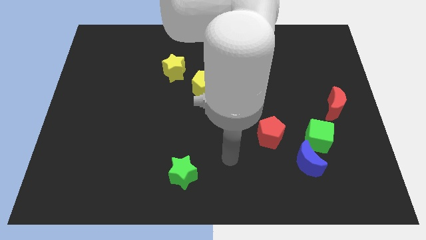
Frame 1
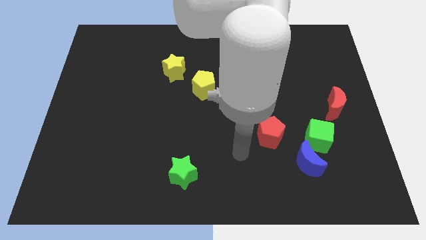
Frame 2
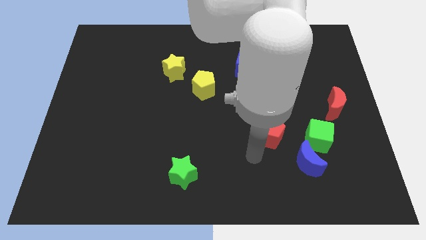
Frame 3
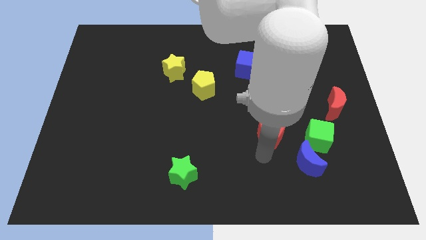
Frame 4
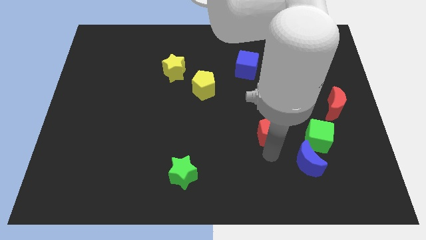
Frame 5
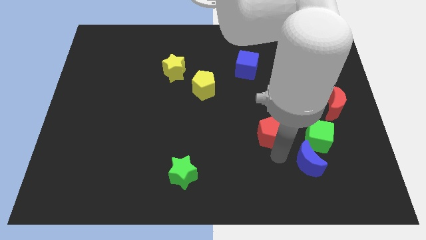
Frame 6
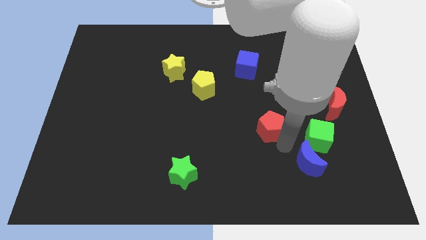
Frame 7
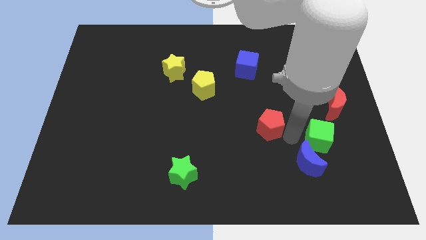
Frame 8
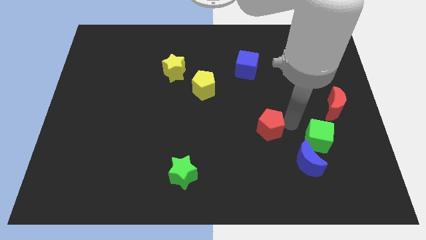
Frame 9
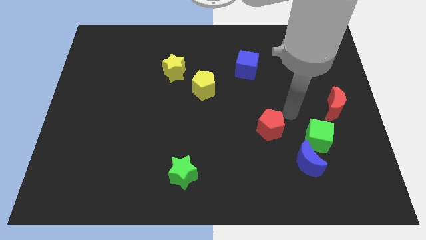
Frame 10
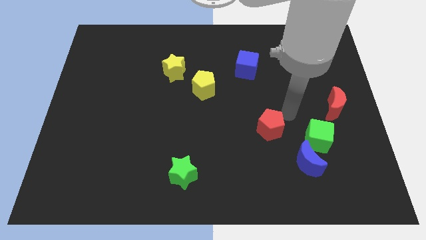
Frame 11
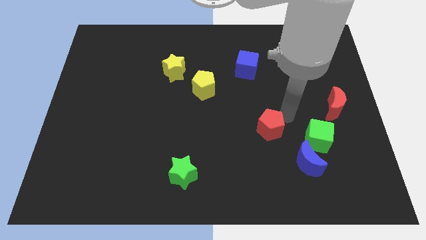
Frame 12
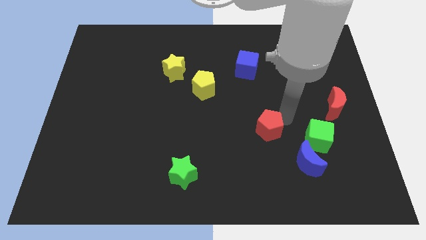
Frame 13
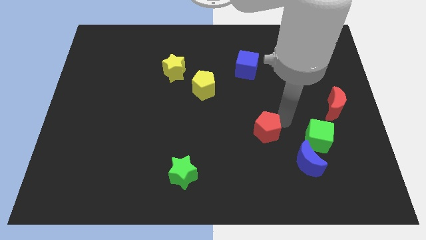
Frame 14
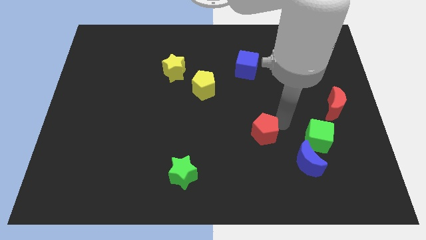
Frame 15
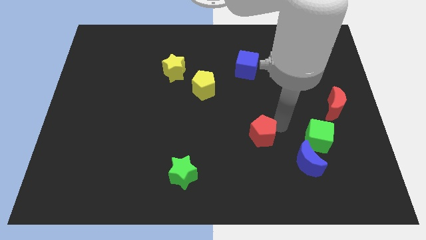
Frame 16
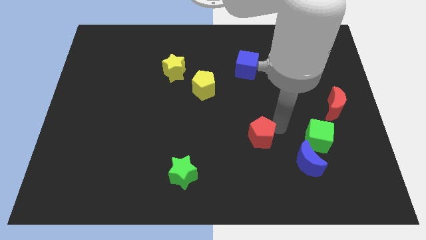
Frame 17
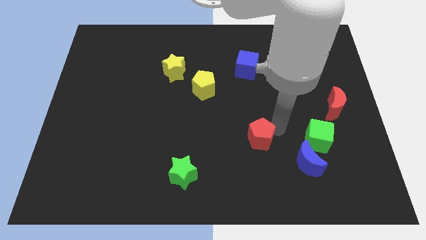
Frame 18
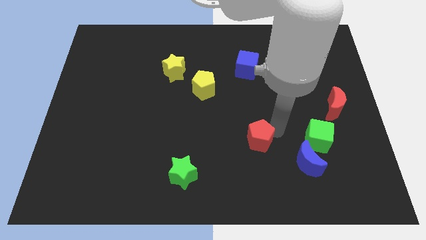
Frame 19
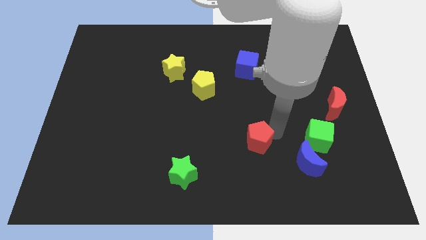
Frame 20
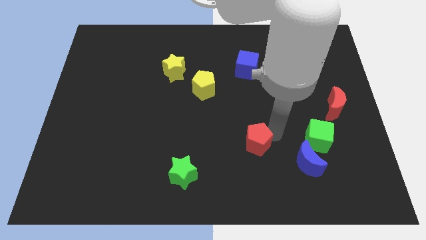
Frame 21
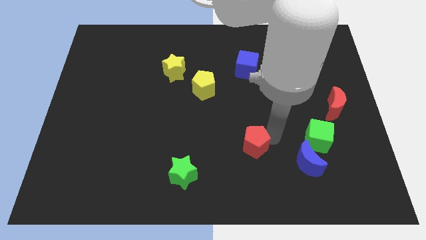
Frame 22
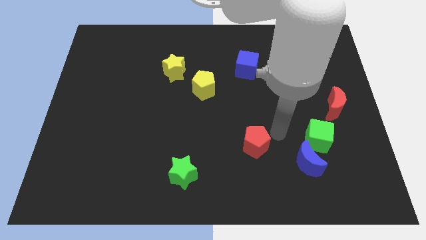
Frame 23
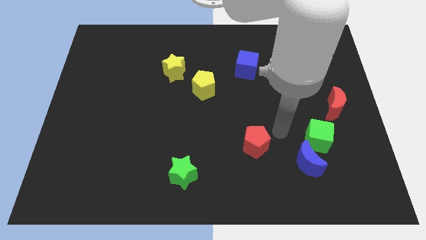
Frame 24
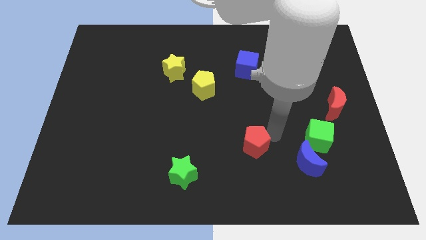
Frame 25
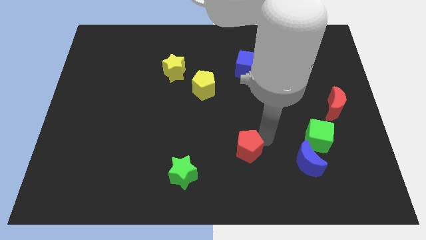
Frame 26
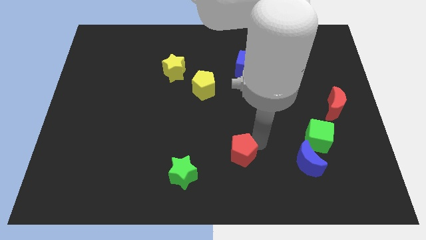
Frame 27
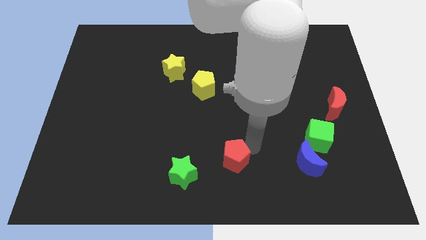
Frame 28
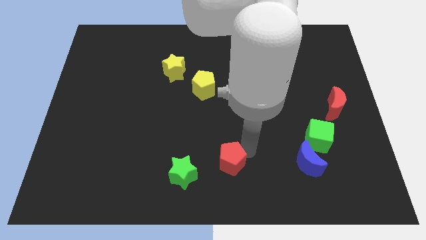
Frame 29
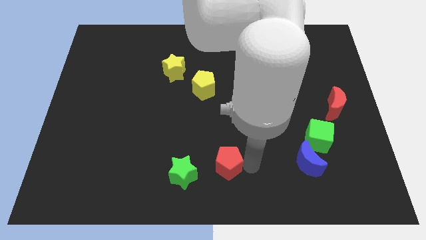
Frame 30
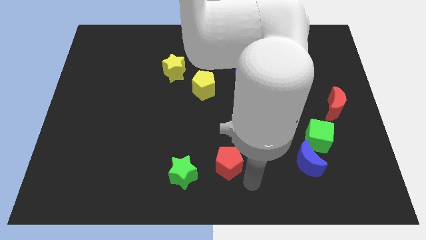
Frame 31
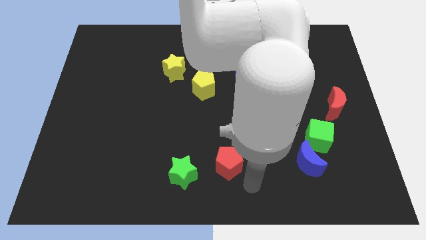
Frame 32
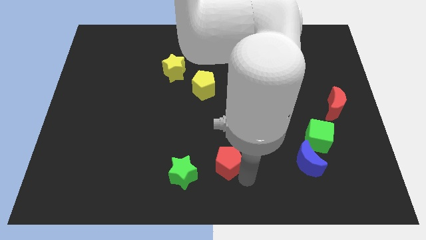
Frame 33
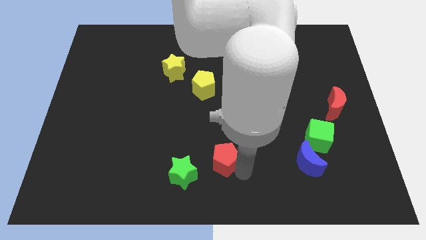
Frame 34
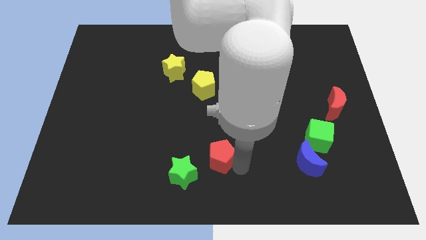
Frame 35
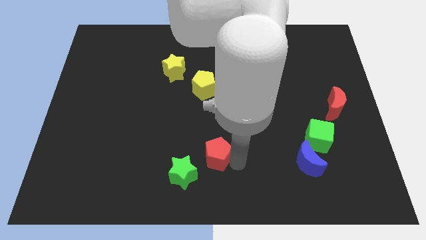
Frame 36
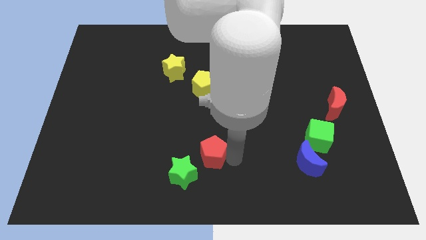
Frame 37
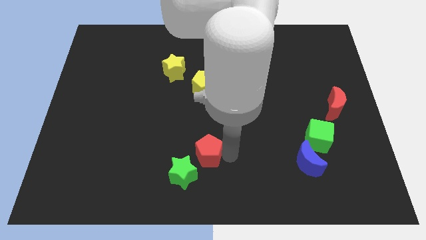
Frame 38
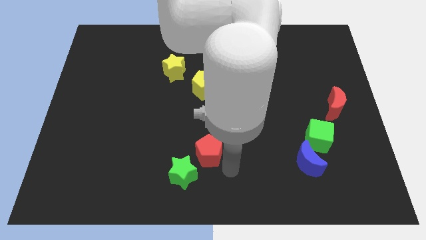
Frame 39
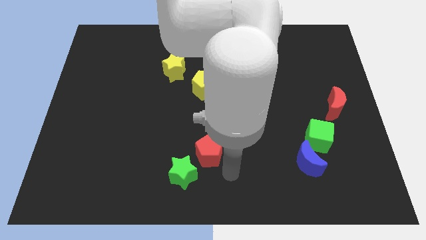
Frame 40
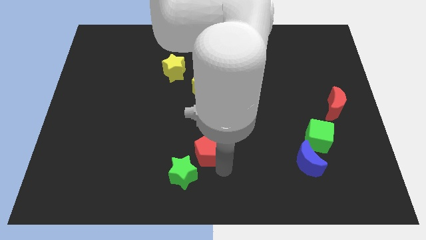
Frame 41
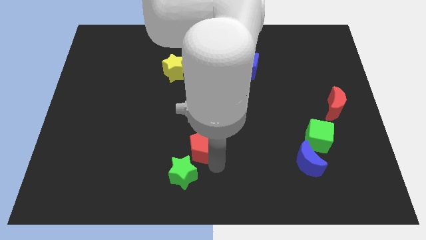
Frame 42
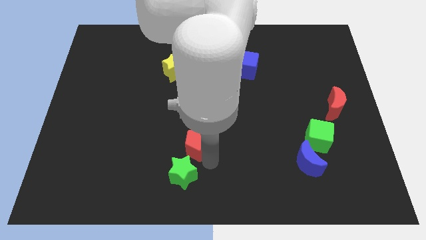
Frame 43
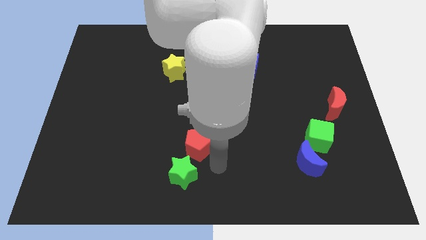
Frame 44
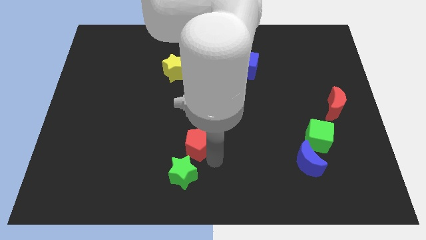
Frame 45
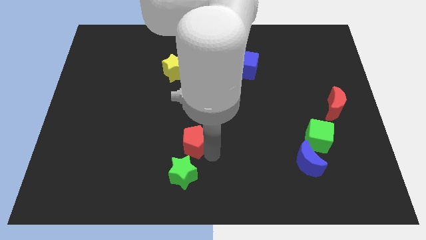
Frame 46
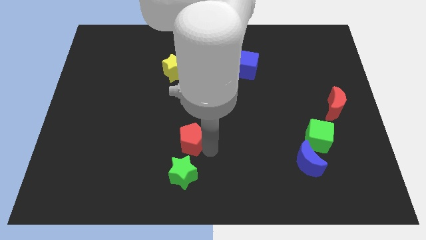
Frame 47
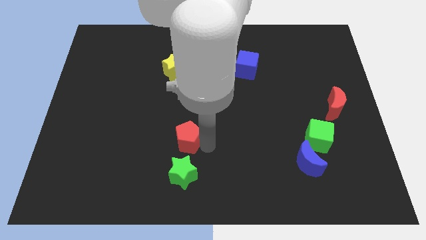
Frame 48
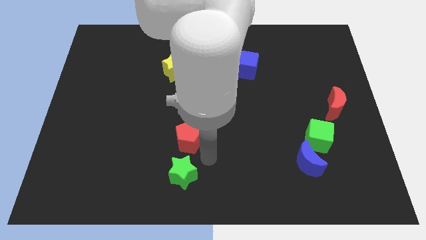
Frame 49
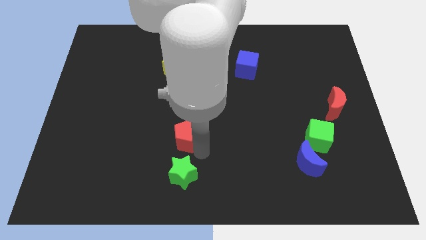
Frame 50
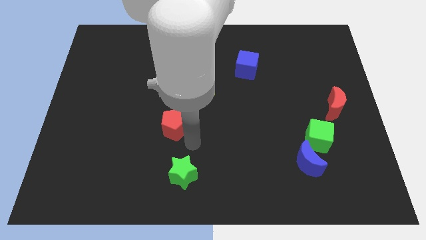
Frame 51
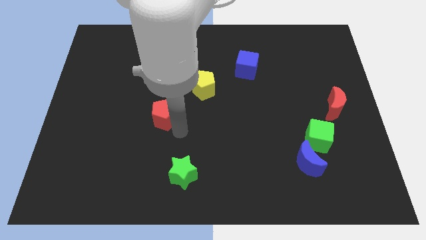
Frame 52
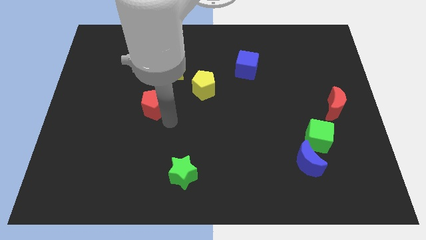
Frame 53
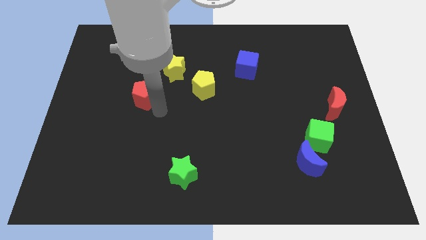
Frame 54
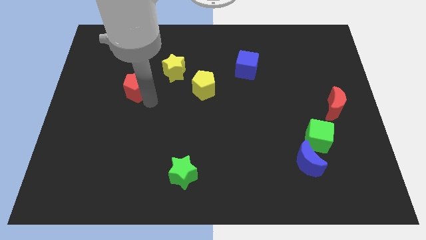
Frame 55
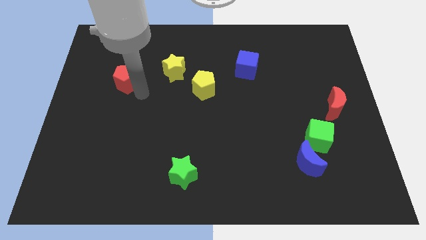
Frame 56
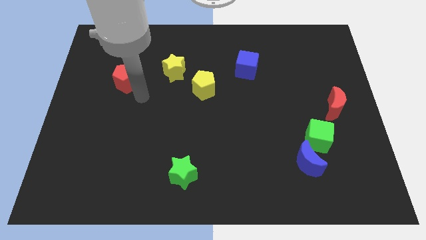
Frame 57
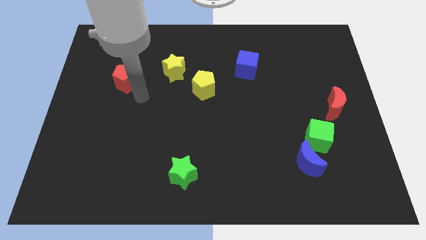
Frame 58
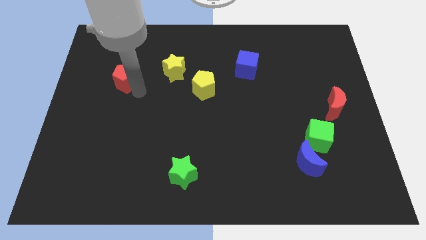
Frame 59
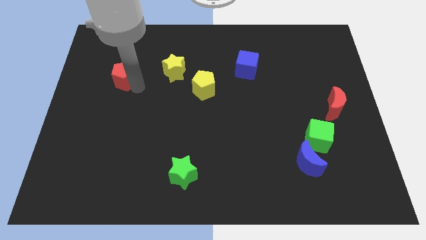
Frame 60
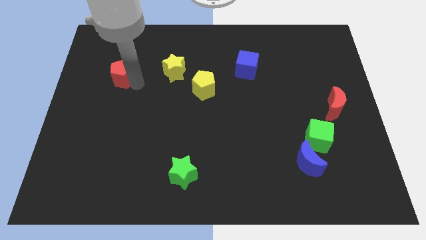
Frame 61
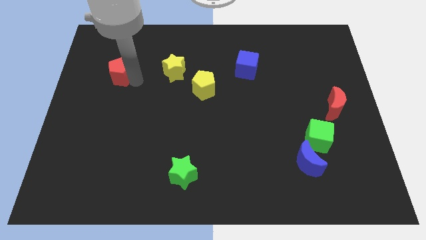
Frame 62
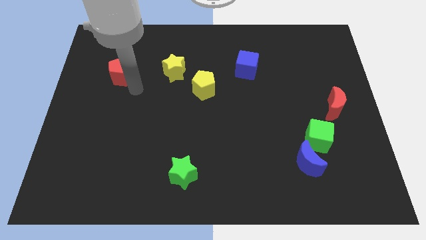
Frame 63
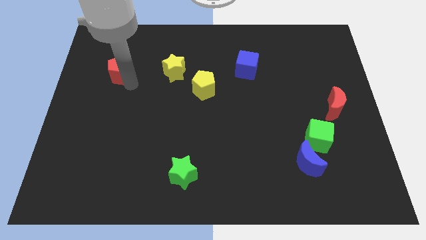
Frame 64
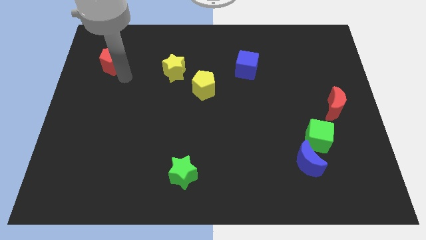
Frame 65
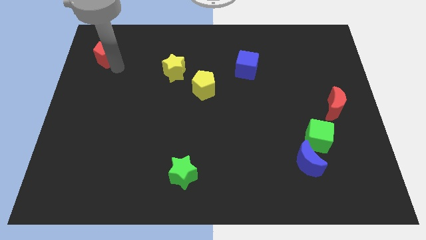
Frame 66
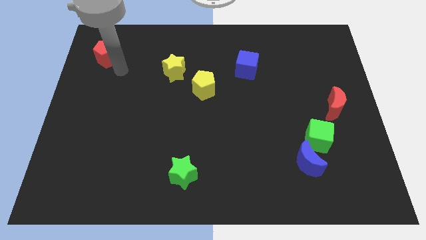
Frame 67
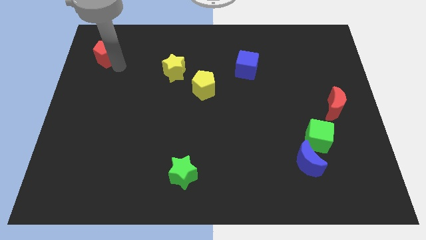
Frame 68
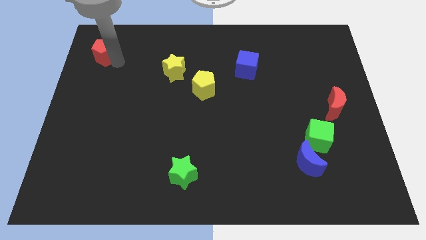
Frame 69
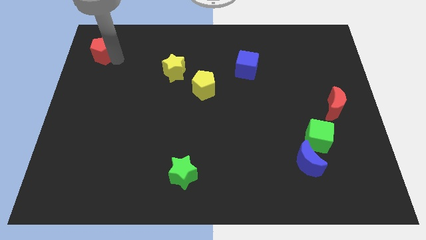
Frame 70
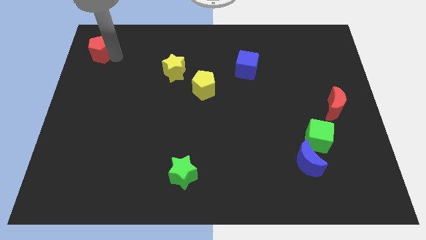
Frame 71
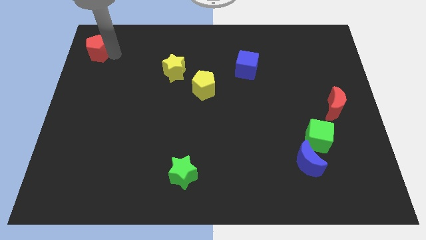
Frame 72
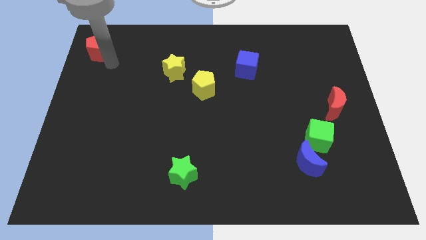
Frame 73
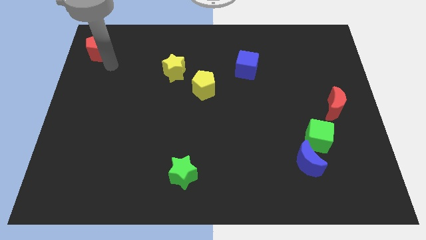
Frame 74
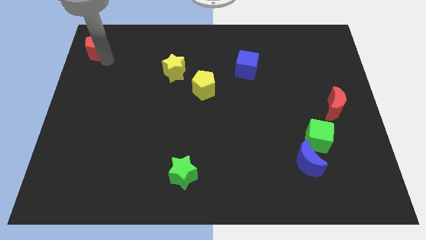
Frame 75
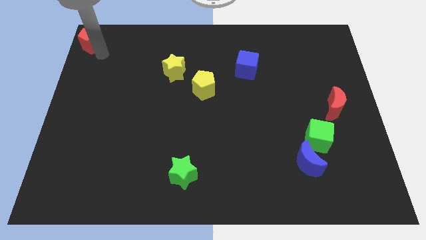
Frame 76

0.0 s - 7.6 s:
move the red pentagon to the top left
